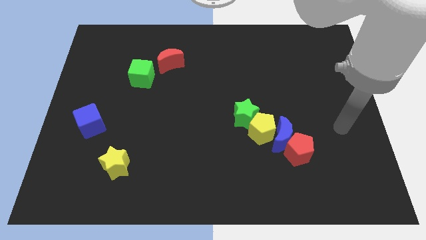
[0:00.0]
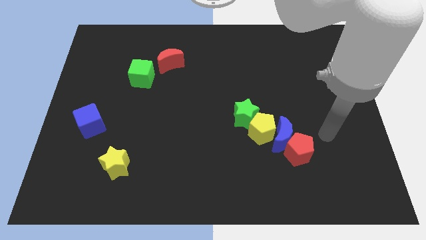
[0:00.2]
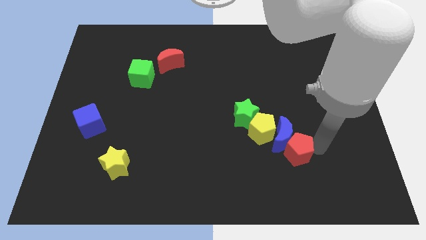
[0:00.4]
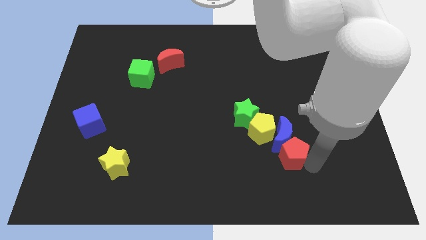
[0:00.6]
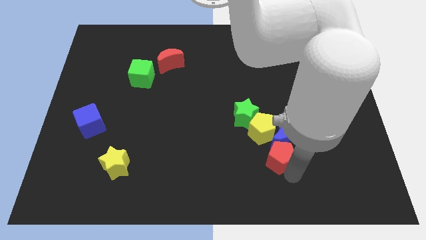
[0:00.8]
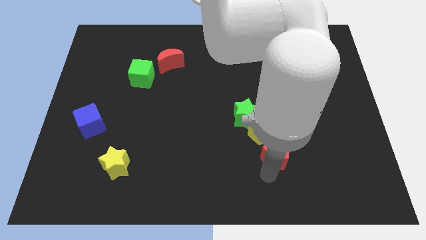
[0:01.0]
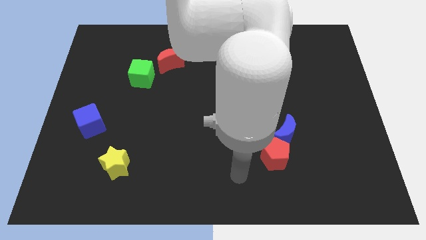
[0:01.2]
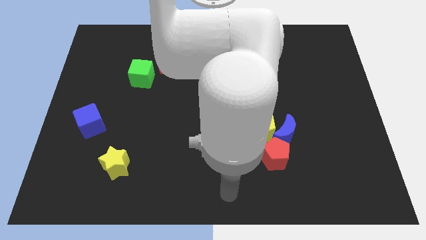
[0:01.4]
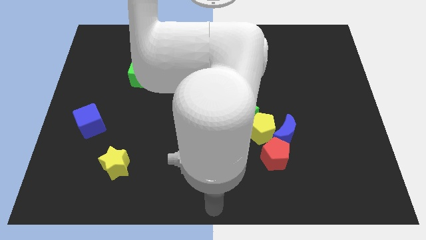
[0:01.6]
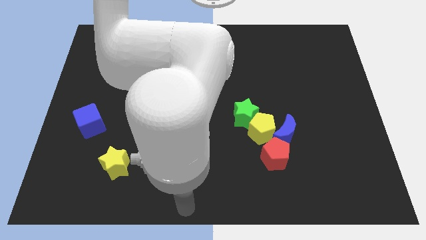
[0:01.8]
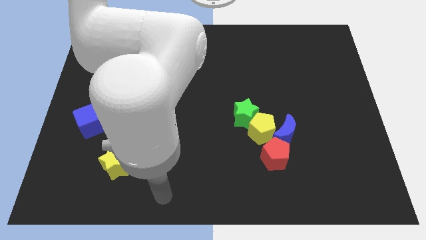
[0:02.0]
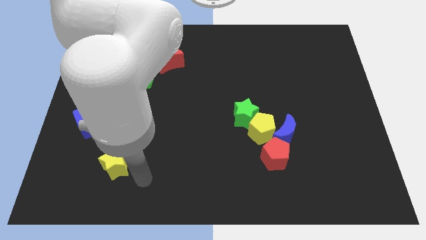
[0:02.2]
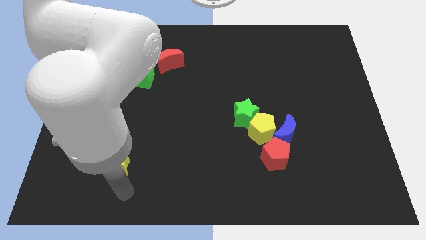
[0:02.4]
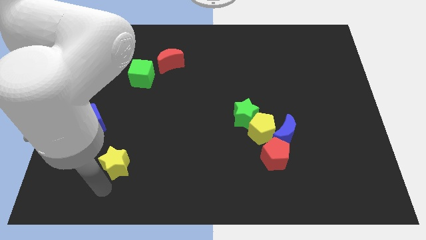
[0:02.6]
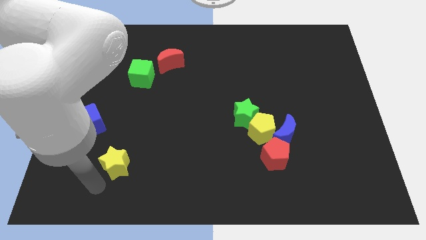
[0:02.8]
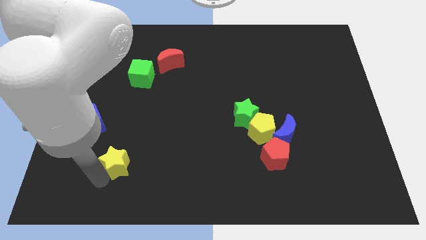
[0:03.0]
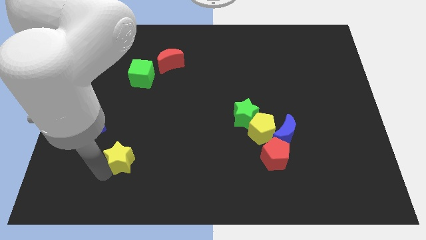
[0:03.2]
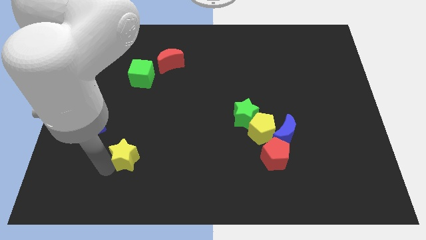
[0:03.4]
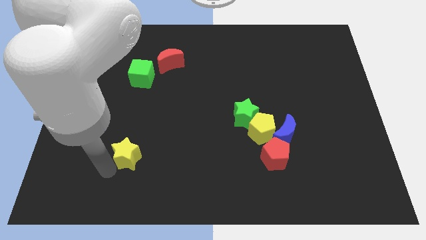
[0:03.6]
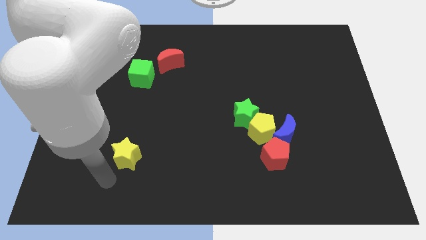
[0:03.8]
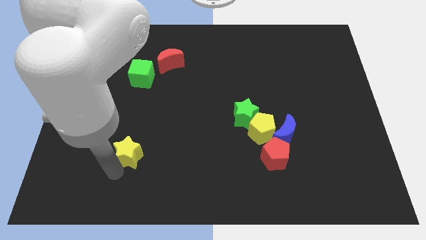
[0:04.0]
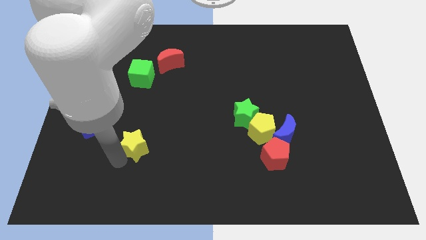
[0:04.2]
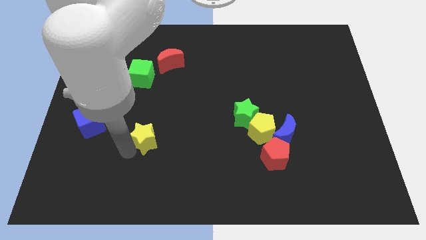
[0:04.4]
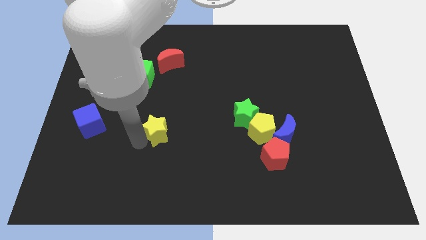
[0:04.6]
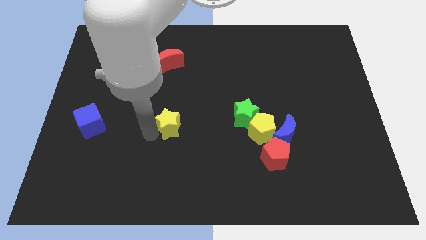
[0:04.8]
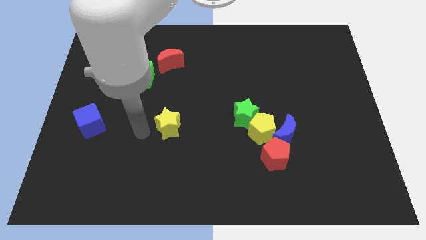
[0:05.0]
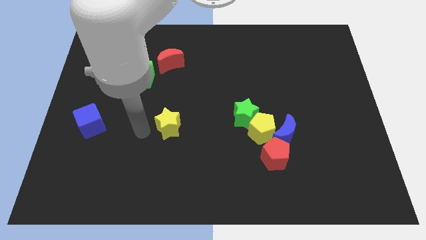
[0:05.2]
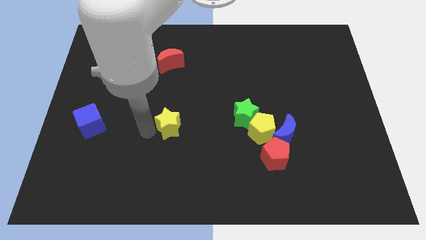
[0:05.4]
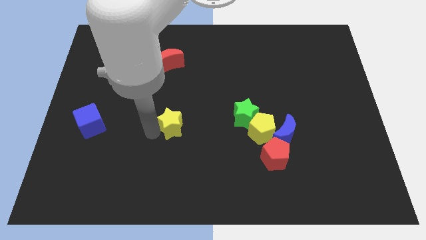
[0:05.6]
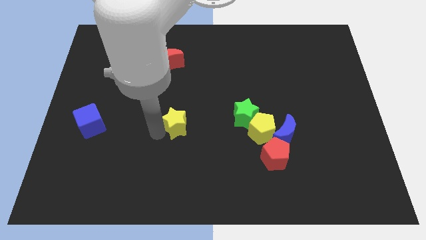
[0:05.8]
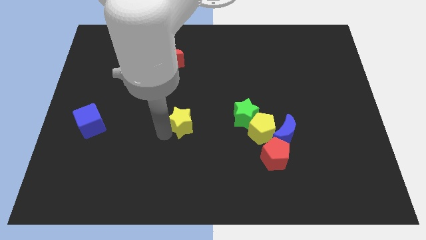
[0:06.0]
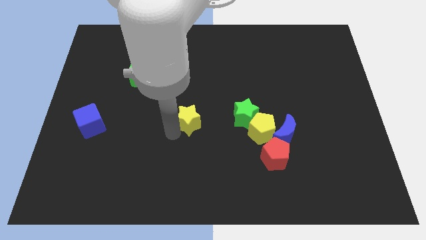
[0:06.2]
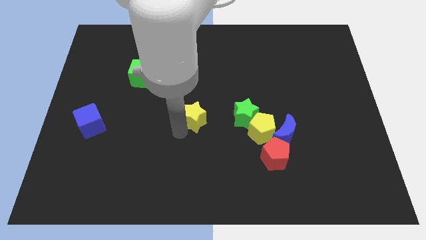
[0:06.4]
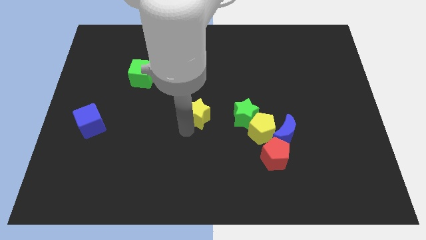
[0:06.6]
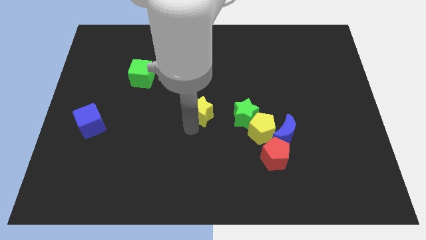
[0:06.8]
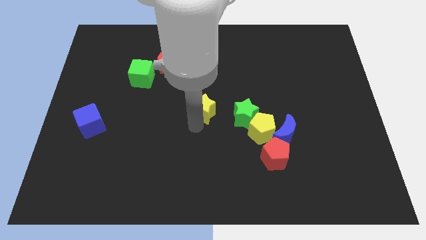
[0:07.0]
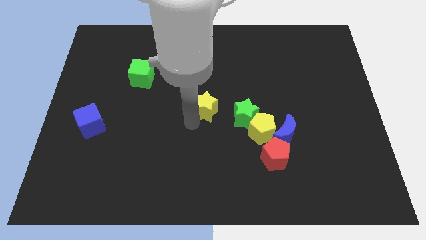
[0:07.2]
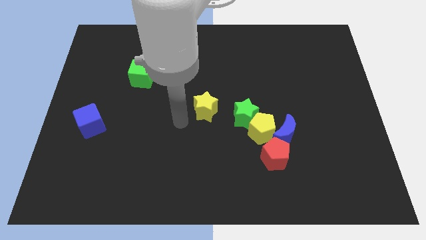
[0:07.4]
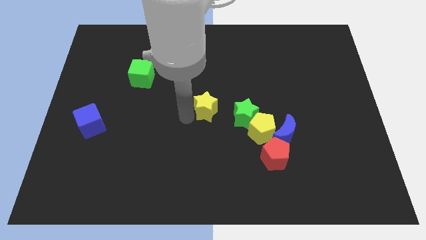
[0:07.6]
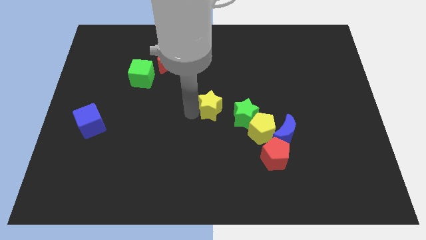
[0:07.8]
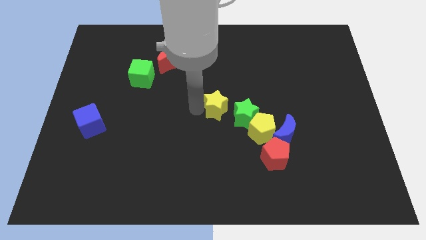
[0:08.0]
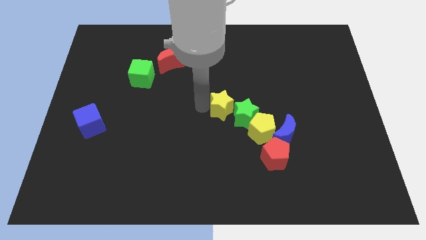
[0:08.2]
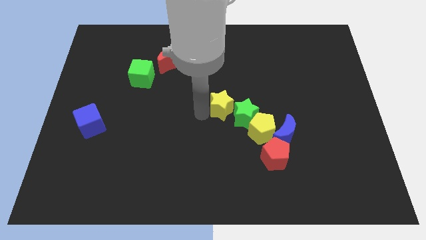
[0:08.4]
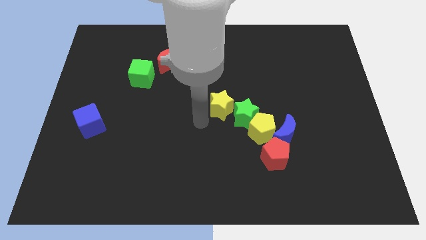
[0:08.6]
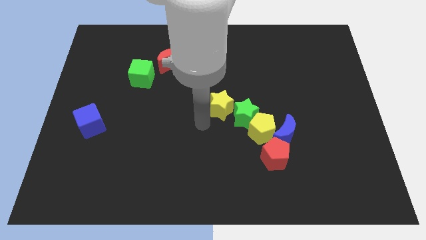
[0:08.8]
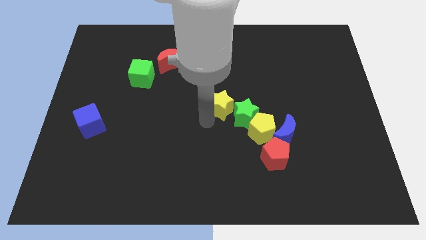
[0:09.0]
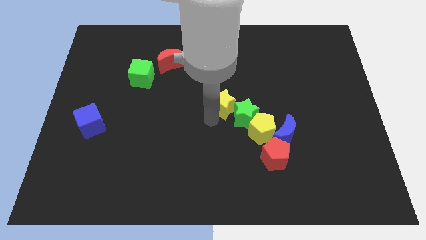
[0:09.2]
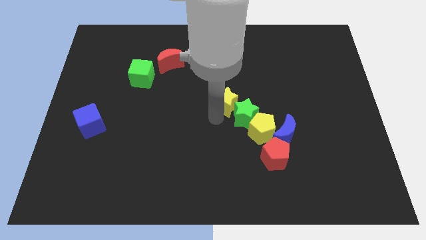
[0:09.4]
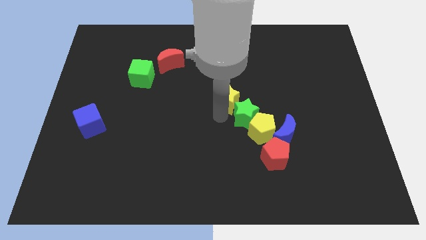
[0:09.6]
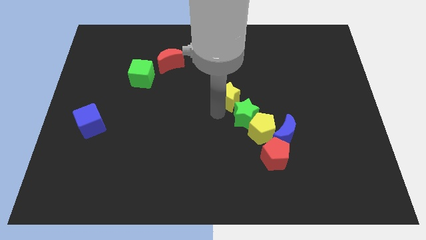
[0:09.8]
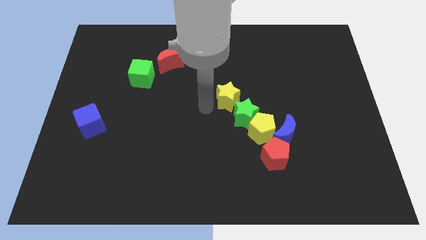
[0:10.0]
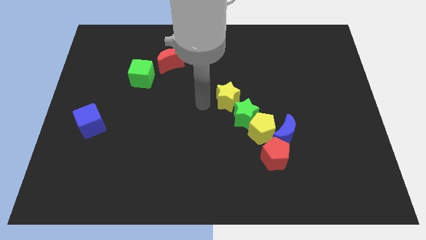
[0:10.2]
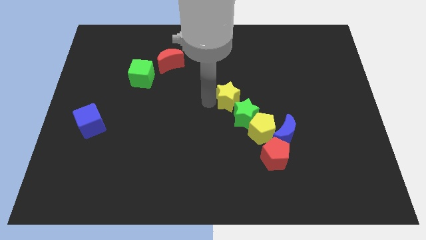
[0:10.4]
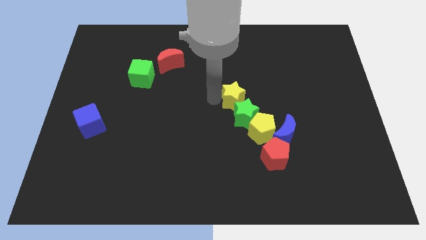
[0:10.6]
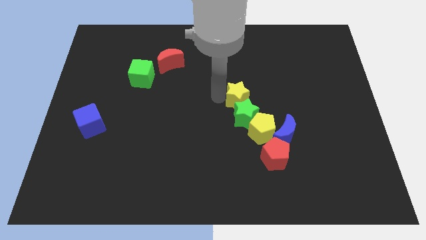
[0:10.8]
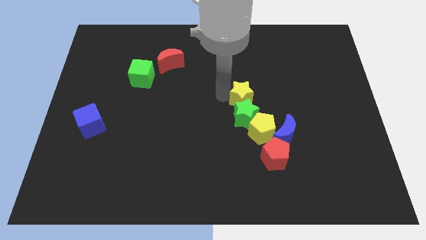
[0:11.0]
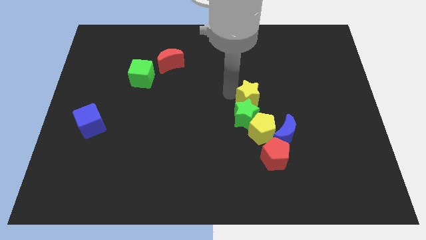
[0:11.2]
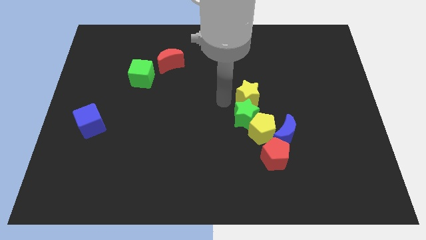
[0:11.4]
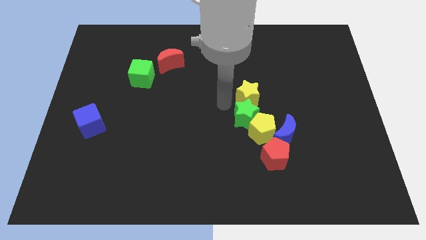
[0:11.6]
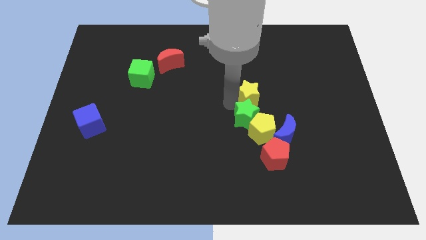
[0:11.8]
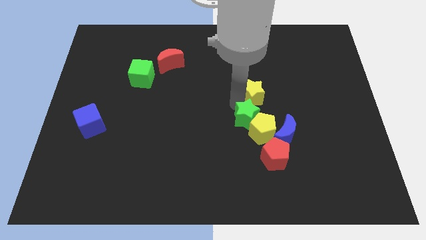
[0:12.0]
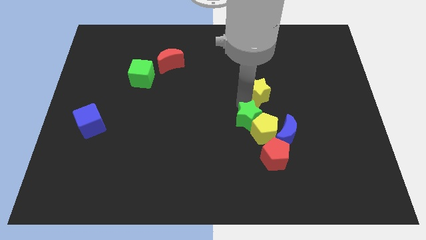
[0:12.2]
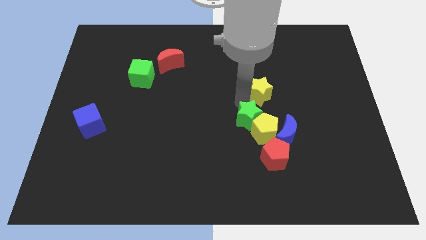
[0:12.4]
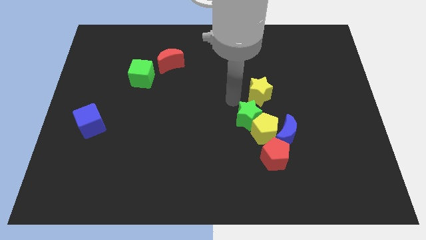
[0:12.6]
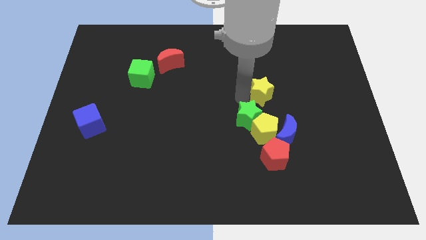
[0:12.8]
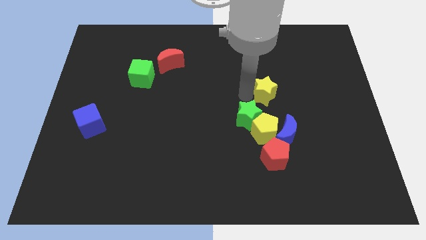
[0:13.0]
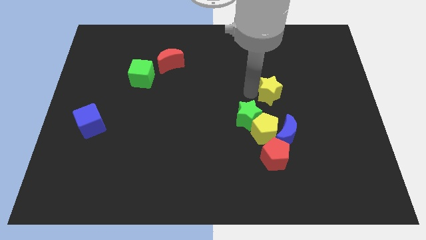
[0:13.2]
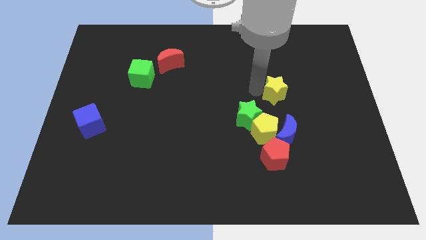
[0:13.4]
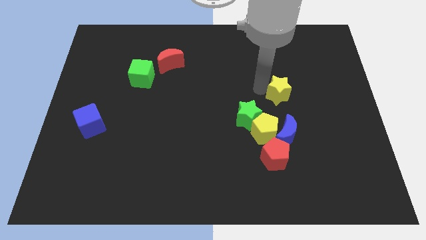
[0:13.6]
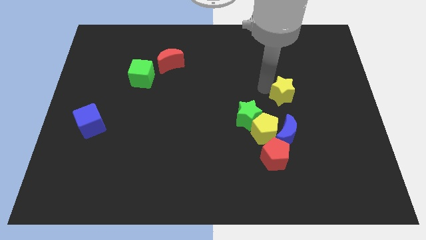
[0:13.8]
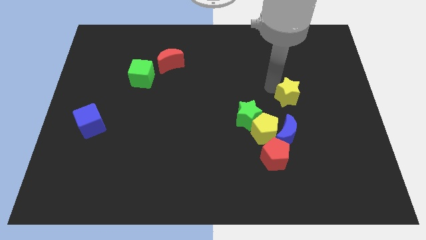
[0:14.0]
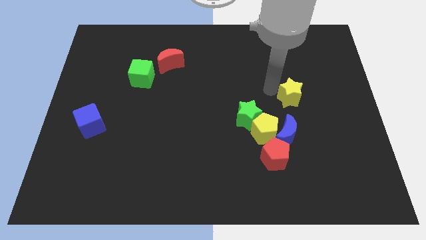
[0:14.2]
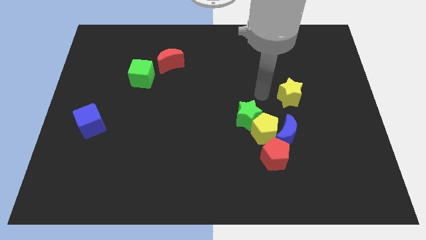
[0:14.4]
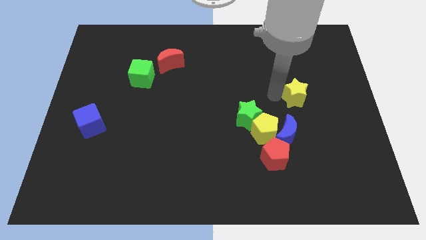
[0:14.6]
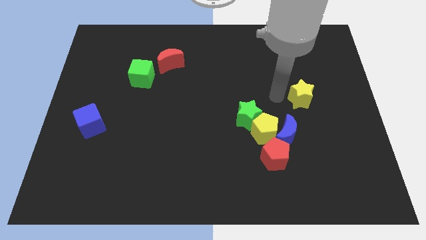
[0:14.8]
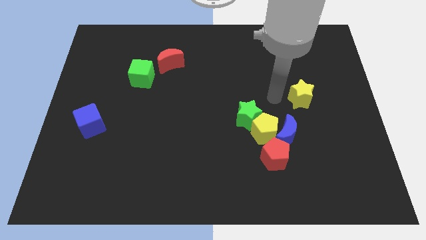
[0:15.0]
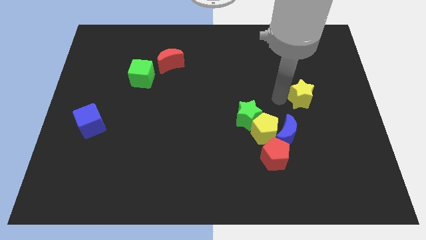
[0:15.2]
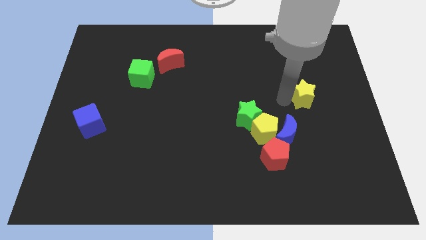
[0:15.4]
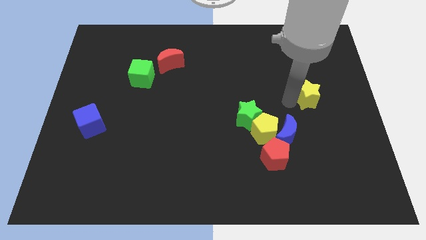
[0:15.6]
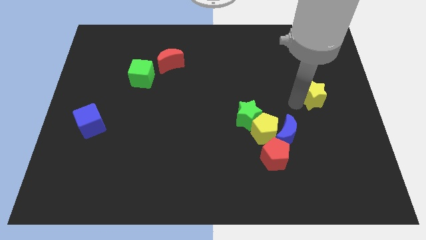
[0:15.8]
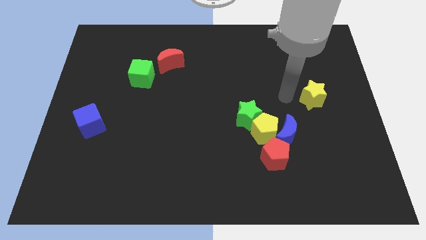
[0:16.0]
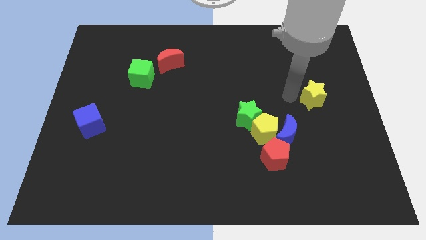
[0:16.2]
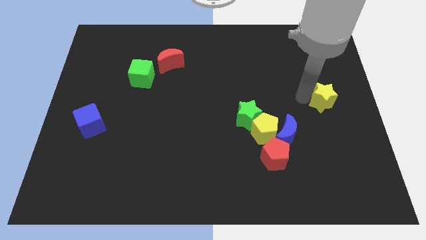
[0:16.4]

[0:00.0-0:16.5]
slide the yellow star to the right side of the board
